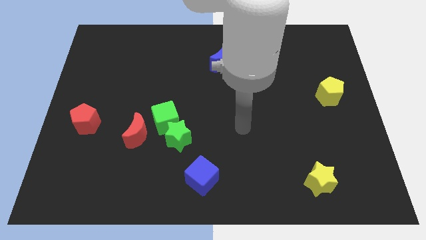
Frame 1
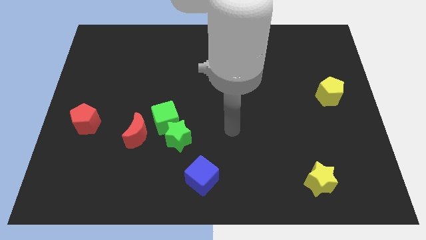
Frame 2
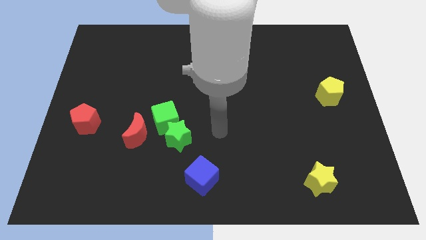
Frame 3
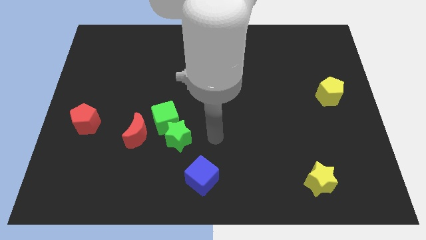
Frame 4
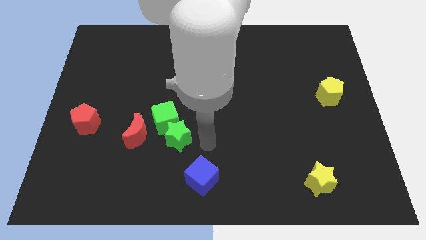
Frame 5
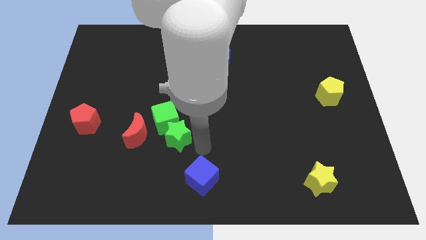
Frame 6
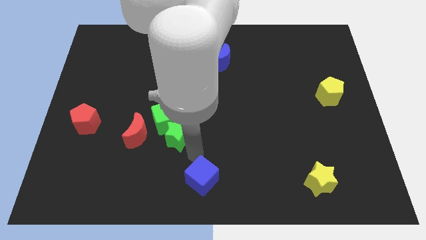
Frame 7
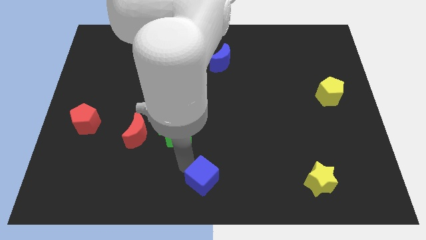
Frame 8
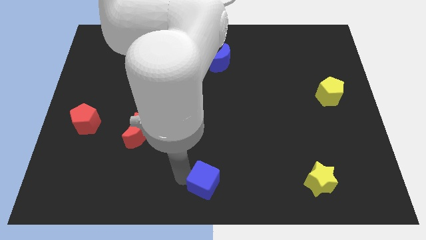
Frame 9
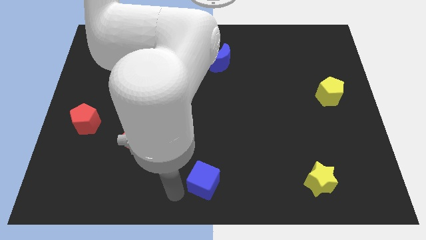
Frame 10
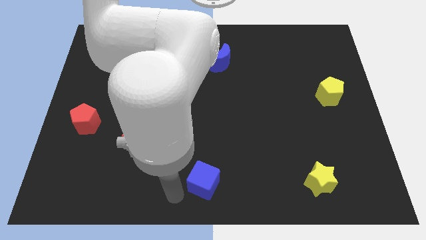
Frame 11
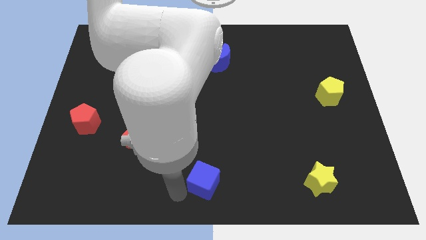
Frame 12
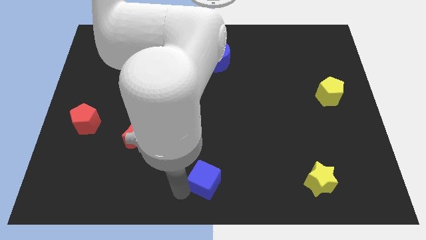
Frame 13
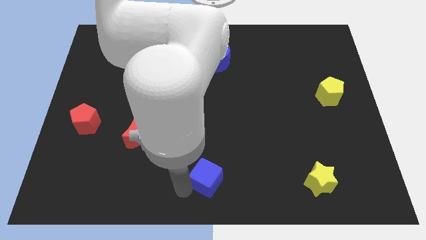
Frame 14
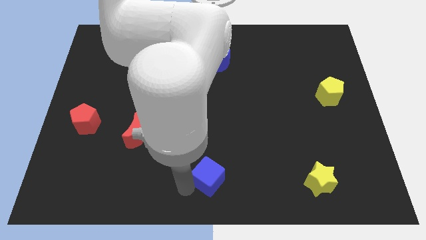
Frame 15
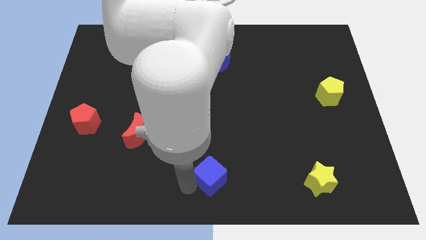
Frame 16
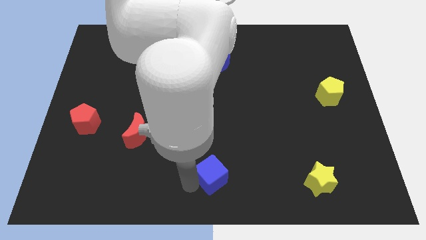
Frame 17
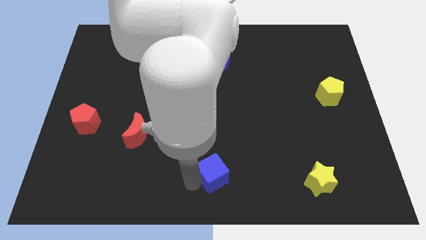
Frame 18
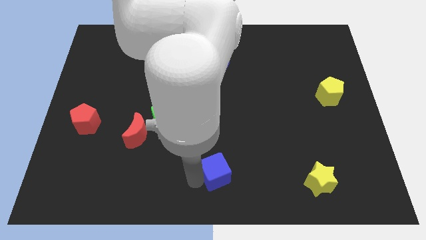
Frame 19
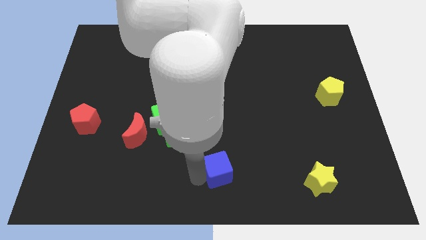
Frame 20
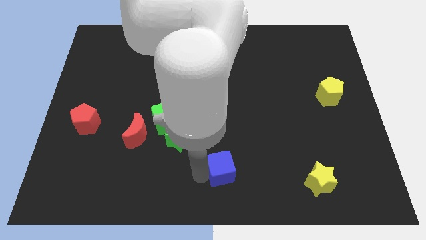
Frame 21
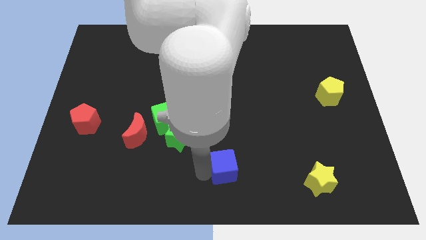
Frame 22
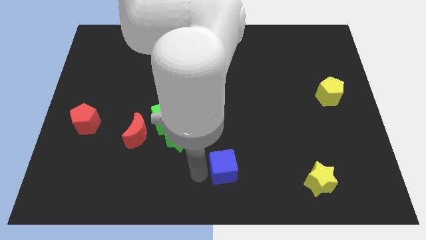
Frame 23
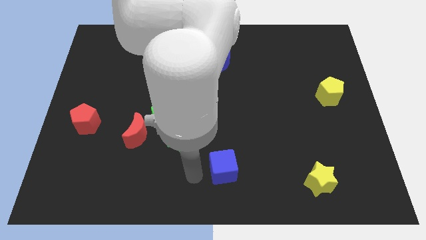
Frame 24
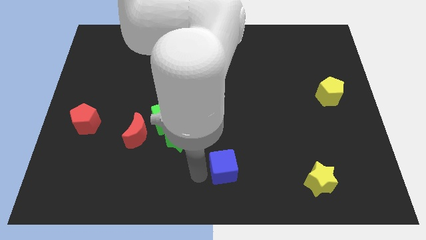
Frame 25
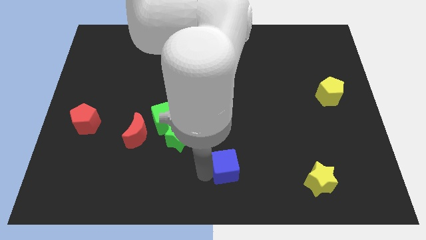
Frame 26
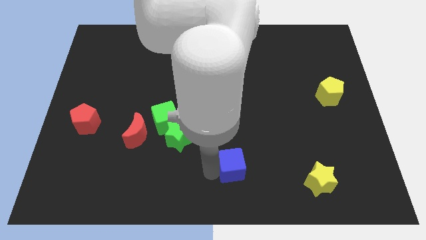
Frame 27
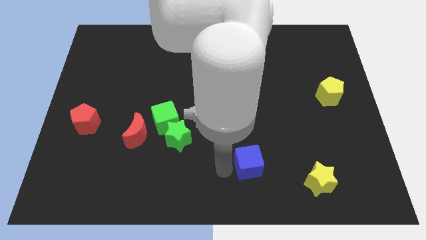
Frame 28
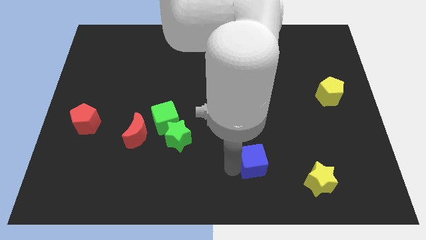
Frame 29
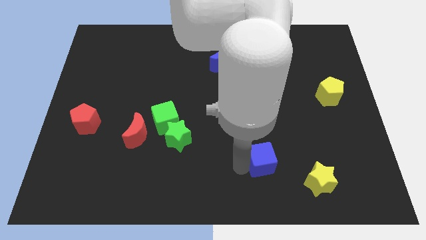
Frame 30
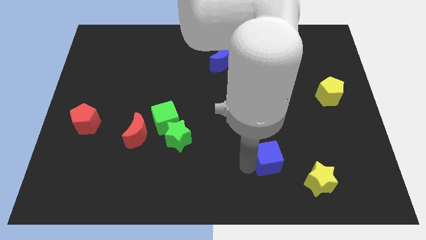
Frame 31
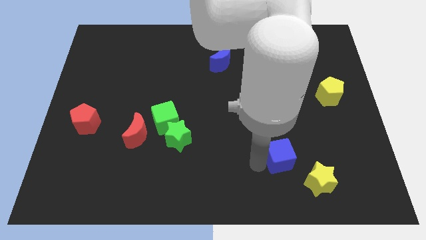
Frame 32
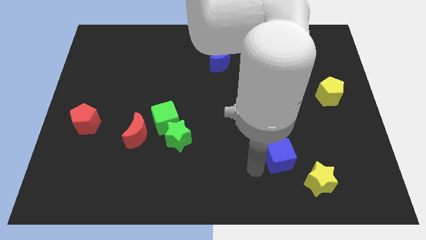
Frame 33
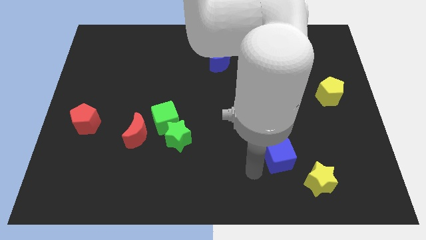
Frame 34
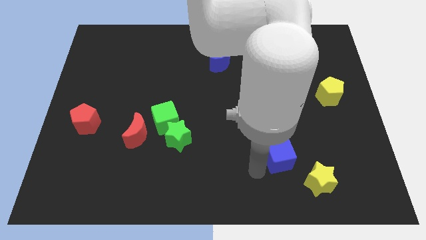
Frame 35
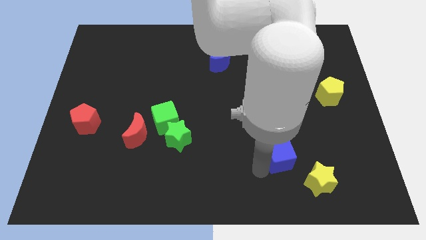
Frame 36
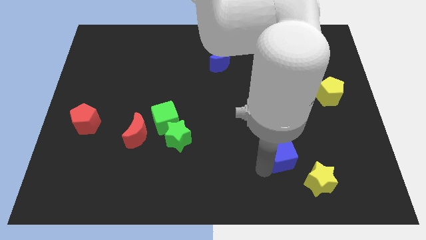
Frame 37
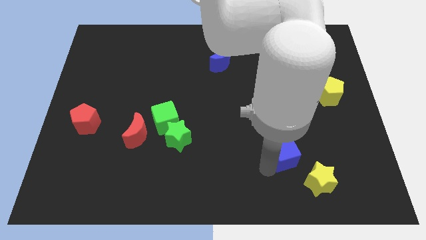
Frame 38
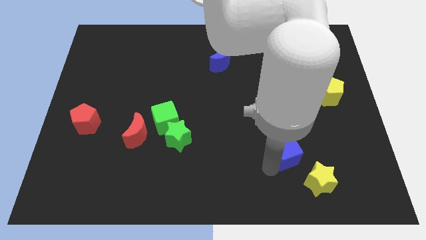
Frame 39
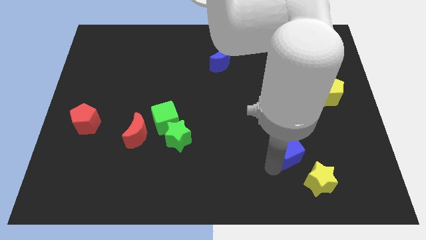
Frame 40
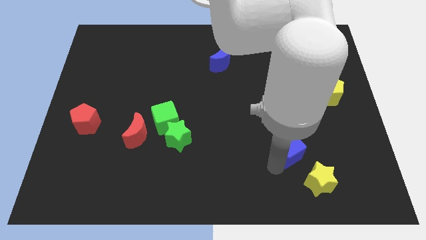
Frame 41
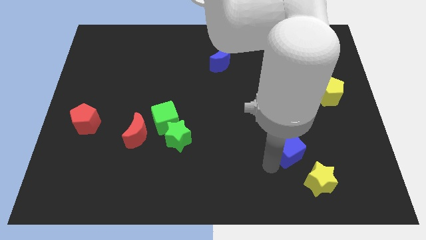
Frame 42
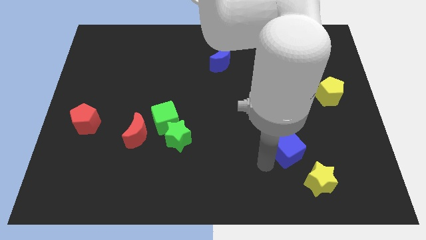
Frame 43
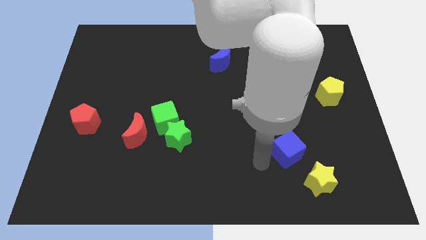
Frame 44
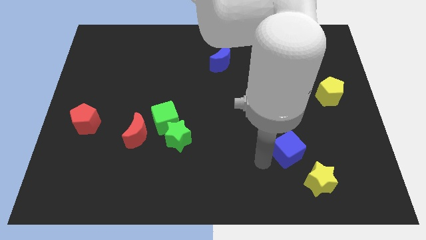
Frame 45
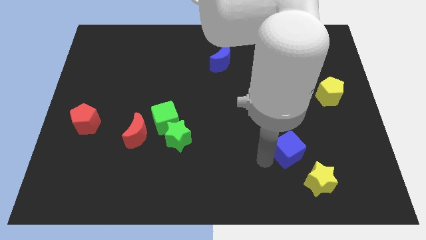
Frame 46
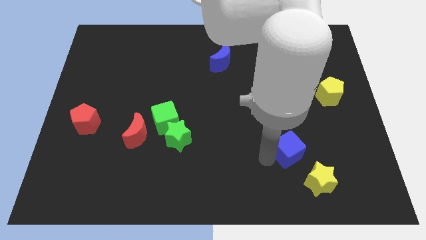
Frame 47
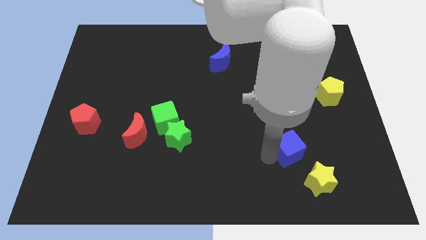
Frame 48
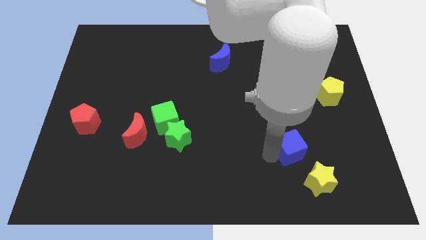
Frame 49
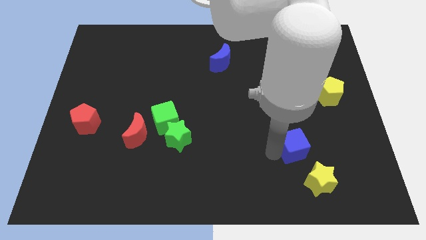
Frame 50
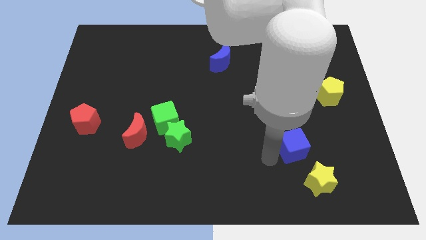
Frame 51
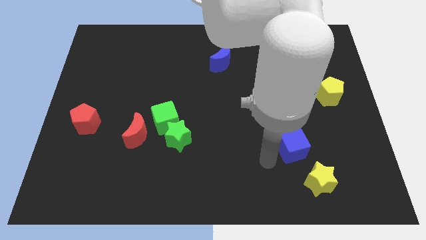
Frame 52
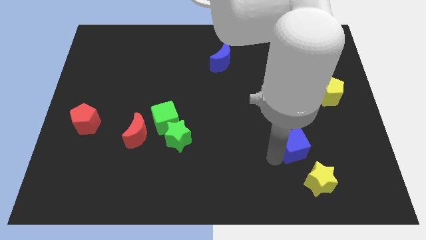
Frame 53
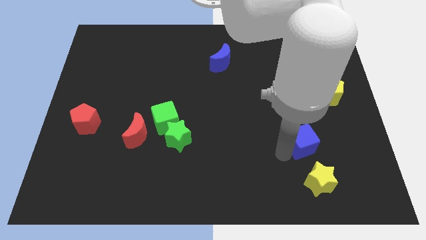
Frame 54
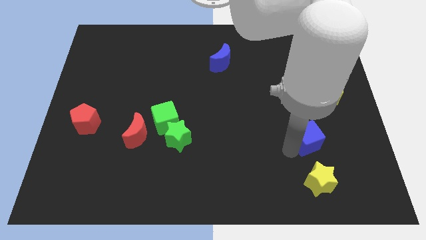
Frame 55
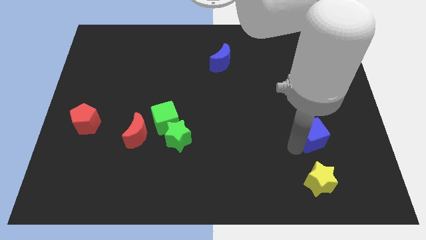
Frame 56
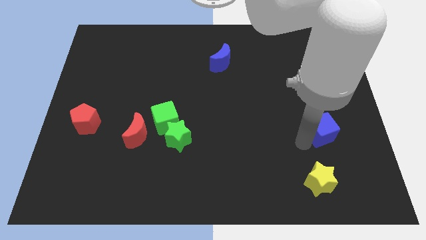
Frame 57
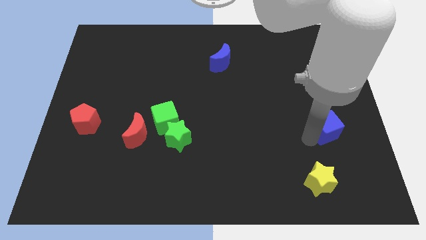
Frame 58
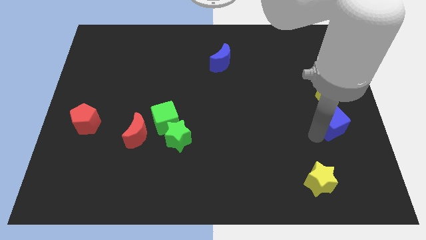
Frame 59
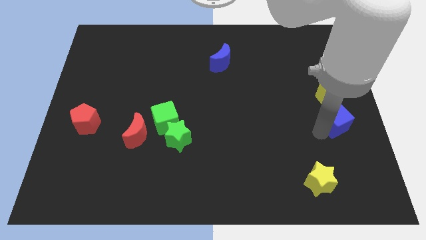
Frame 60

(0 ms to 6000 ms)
move the blue cube to the right side

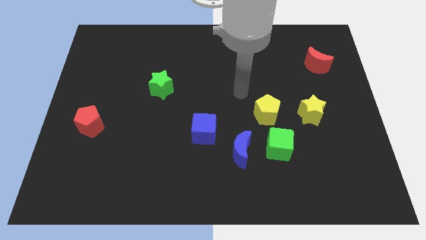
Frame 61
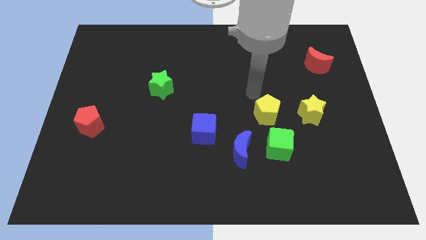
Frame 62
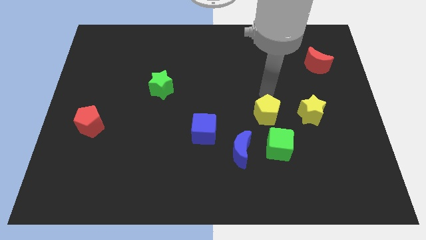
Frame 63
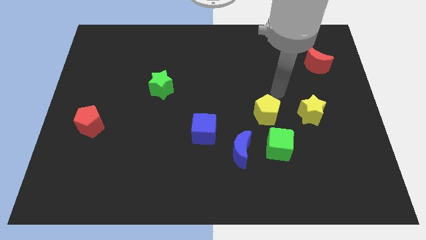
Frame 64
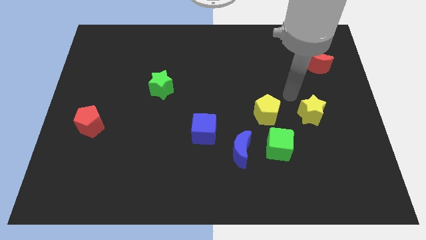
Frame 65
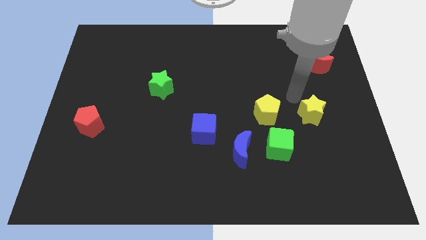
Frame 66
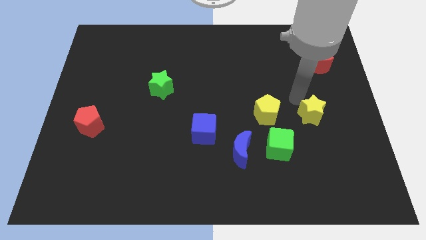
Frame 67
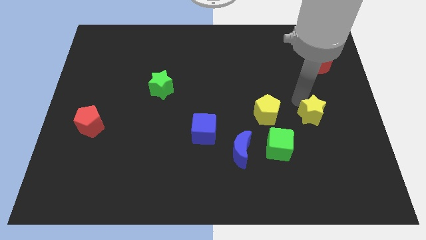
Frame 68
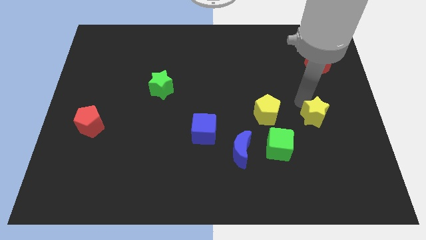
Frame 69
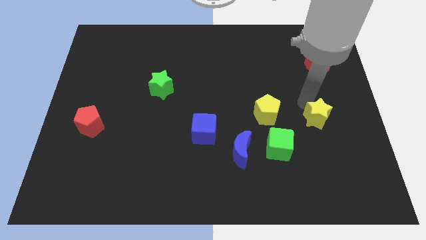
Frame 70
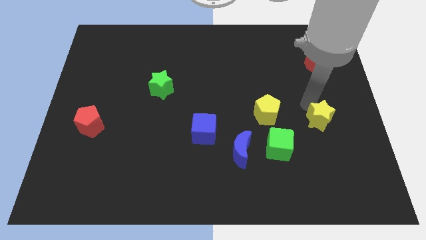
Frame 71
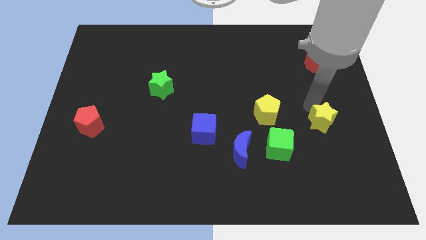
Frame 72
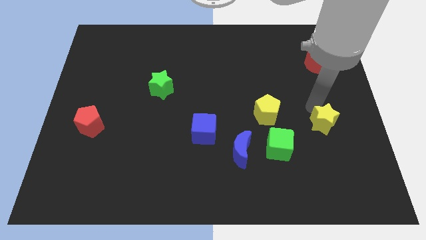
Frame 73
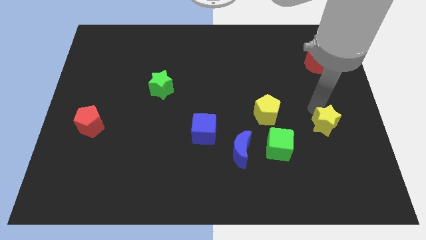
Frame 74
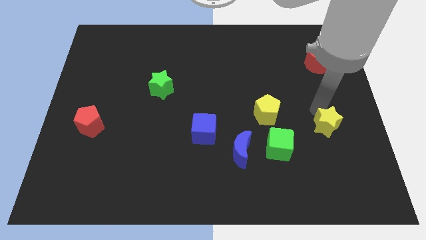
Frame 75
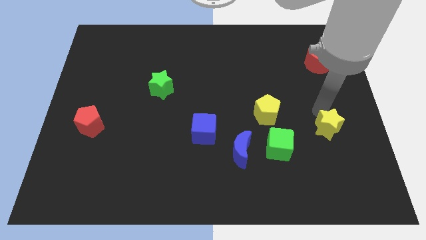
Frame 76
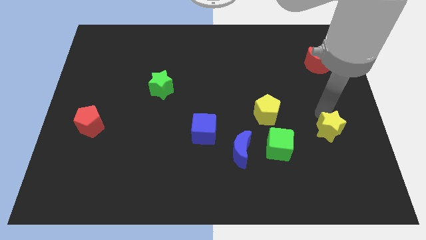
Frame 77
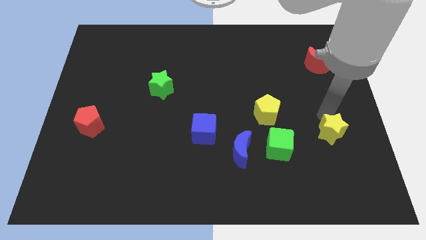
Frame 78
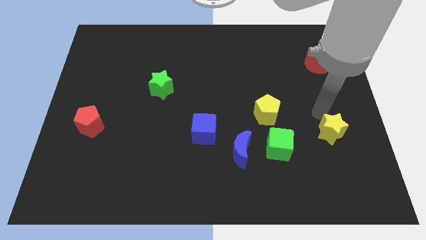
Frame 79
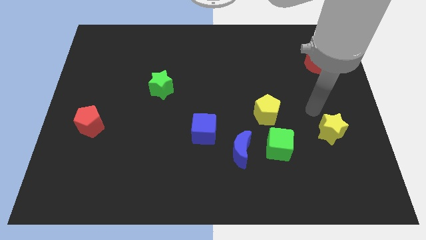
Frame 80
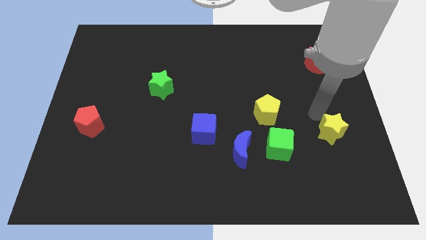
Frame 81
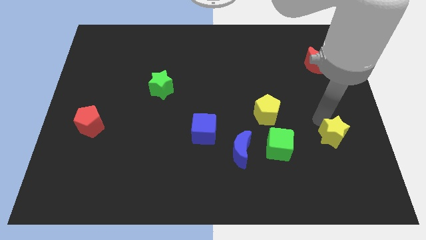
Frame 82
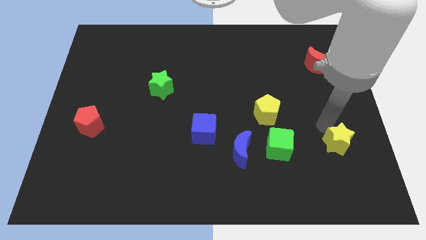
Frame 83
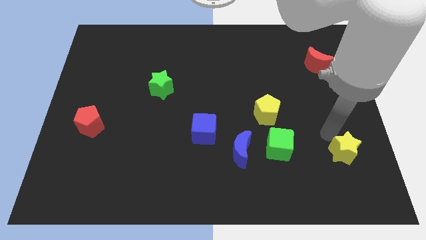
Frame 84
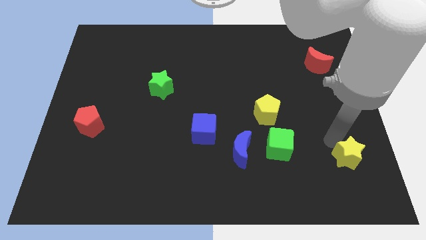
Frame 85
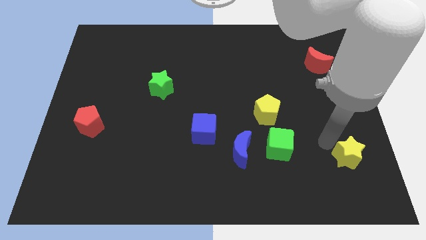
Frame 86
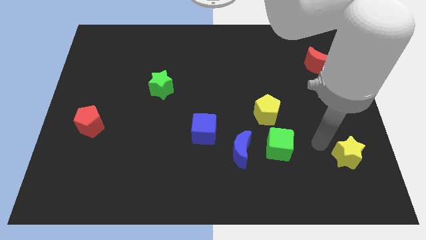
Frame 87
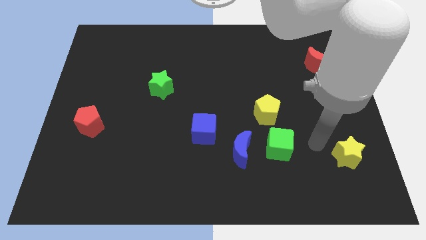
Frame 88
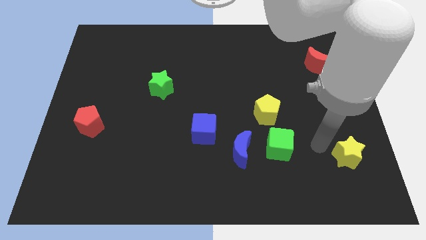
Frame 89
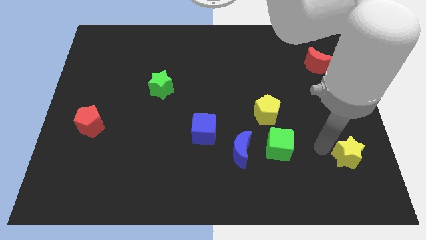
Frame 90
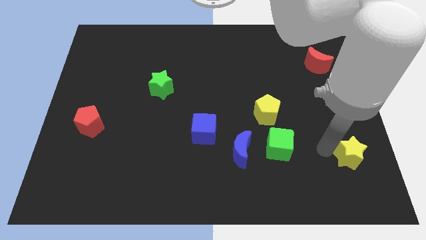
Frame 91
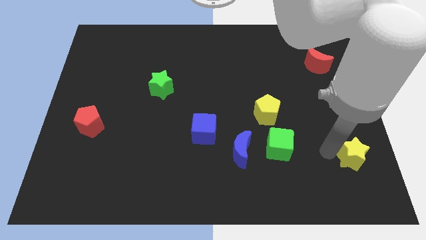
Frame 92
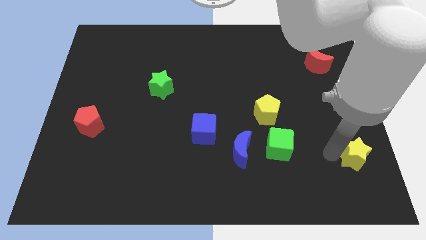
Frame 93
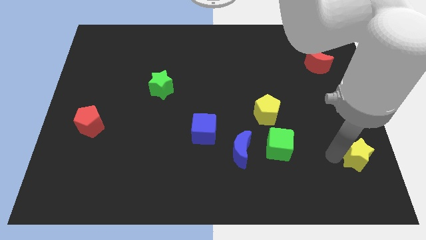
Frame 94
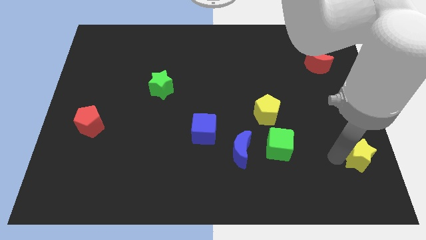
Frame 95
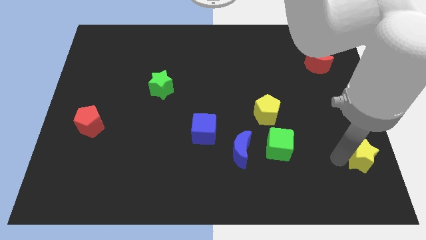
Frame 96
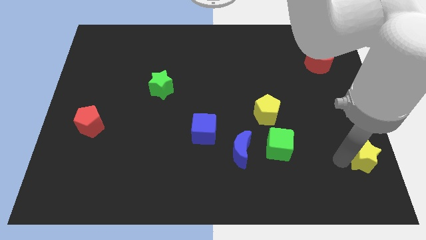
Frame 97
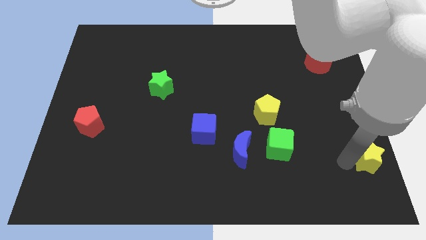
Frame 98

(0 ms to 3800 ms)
move the yellow star to the bottom right corner
